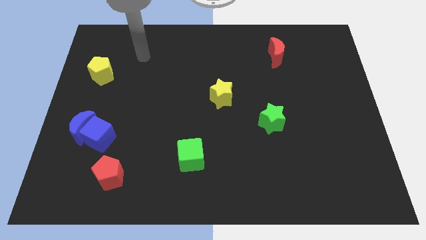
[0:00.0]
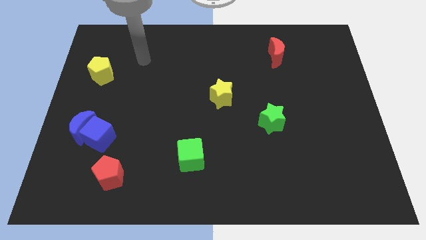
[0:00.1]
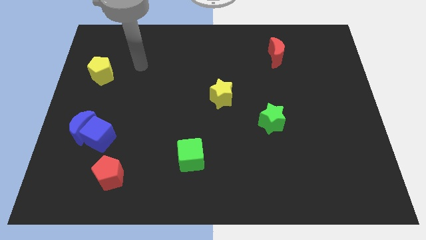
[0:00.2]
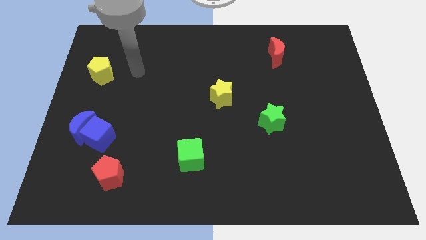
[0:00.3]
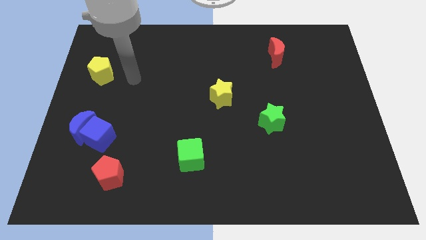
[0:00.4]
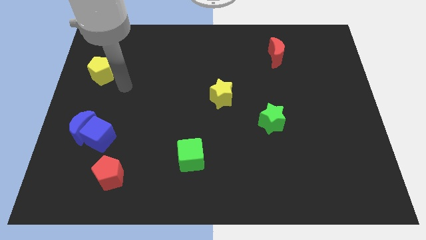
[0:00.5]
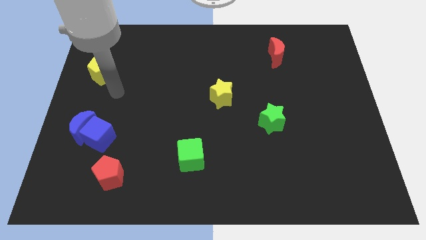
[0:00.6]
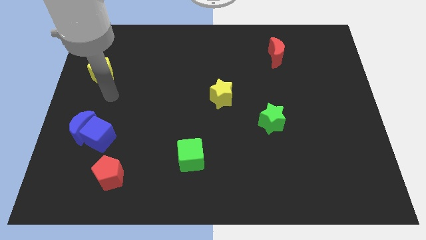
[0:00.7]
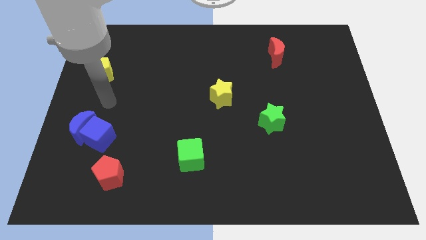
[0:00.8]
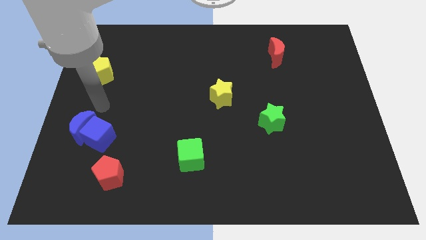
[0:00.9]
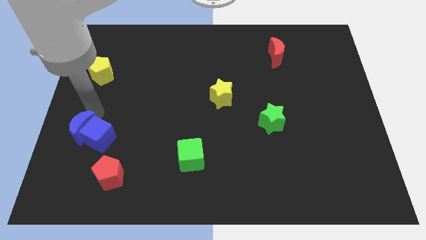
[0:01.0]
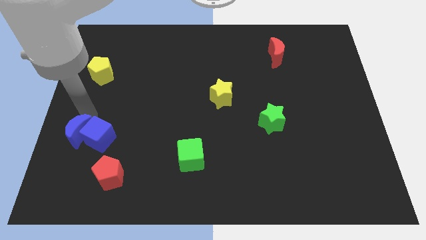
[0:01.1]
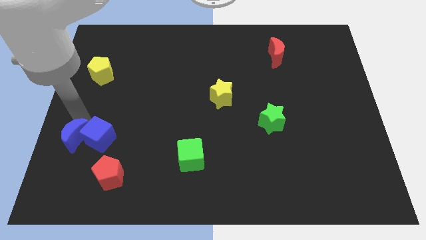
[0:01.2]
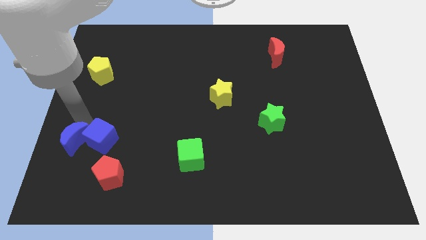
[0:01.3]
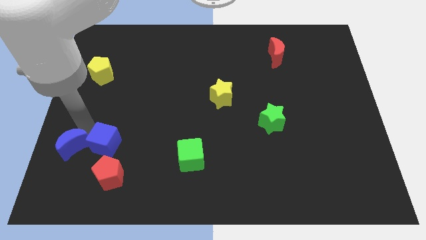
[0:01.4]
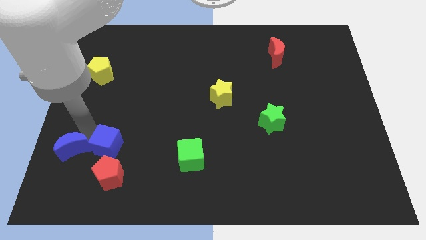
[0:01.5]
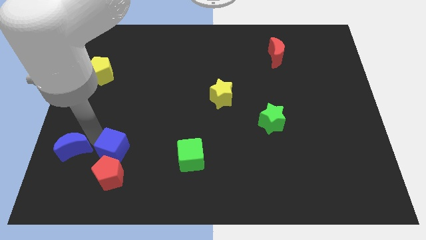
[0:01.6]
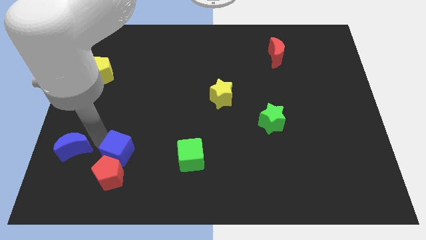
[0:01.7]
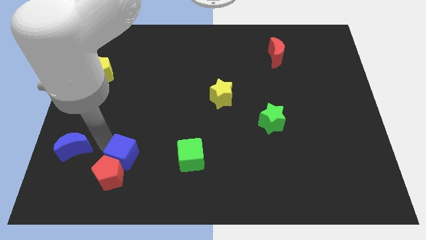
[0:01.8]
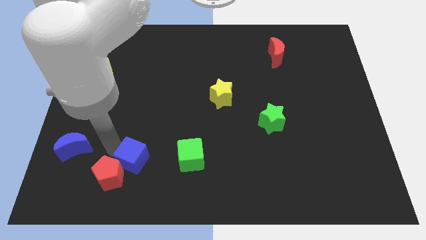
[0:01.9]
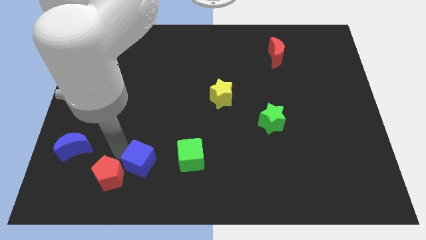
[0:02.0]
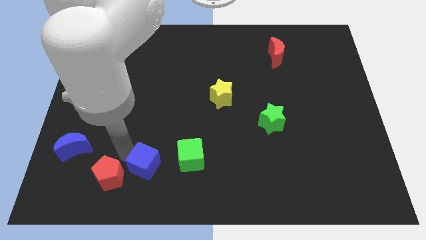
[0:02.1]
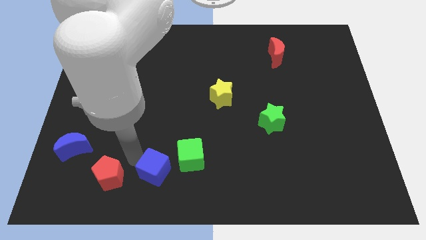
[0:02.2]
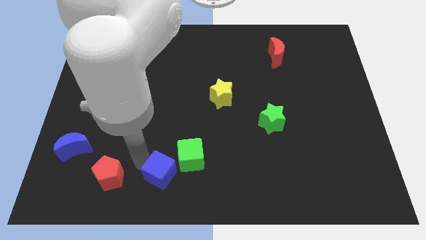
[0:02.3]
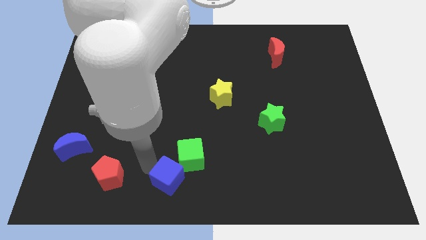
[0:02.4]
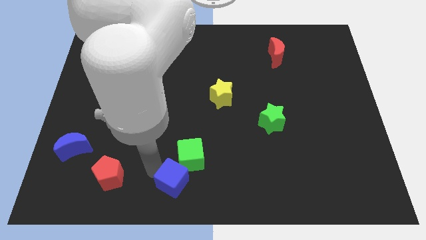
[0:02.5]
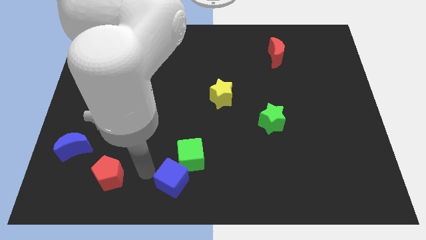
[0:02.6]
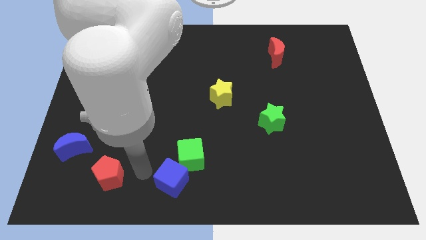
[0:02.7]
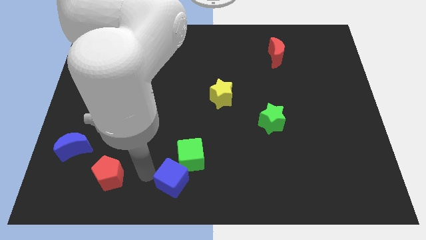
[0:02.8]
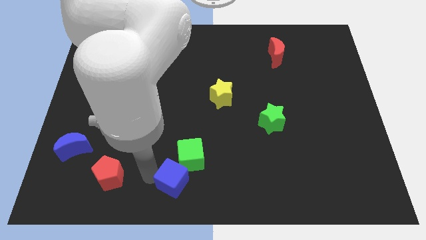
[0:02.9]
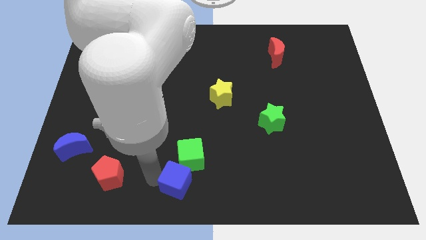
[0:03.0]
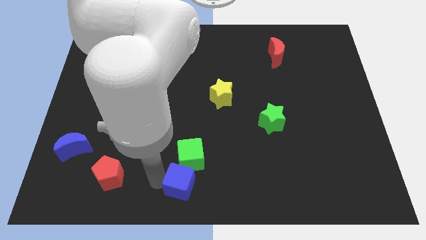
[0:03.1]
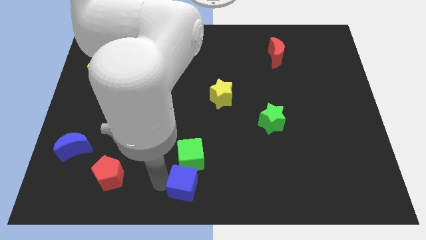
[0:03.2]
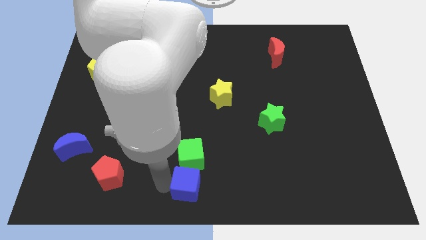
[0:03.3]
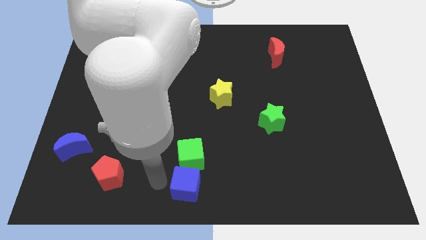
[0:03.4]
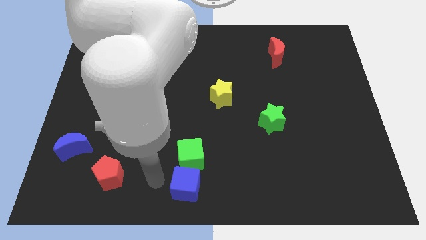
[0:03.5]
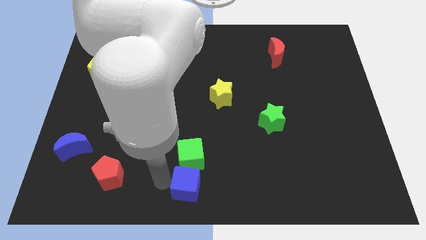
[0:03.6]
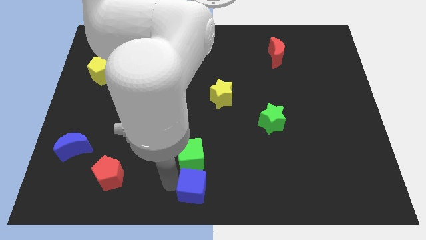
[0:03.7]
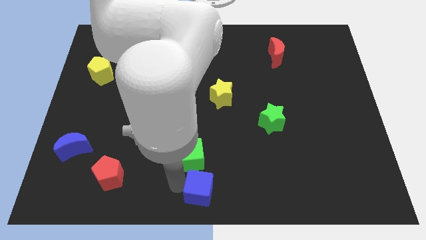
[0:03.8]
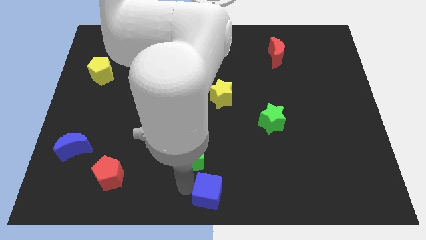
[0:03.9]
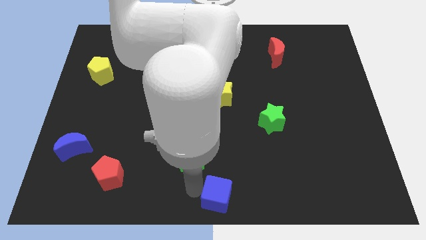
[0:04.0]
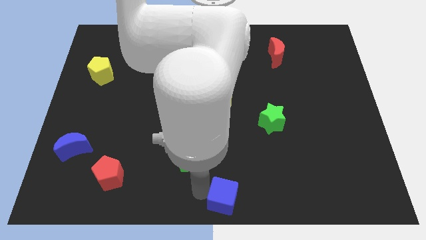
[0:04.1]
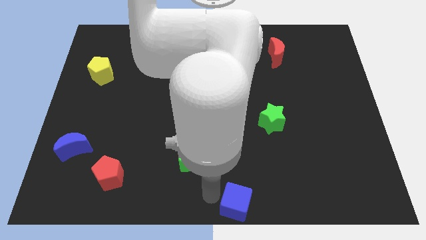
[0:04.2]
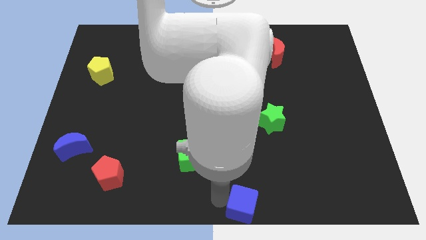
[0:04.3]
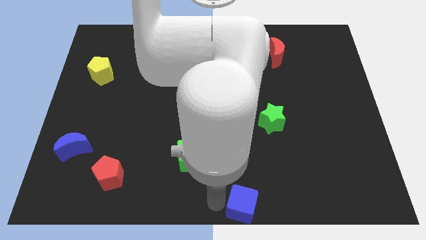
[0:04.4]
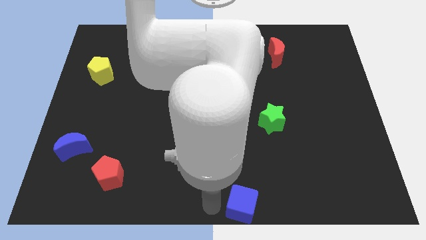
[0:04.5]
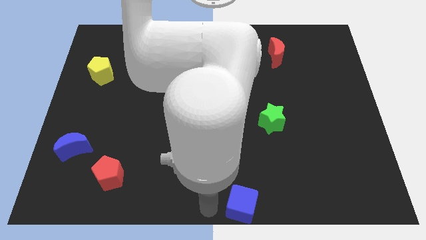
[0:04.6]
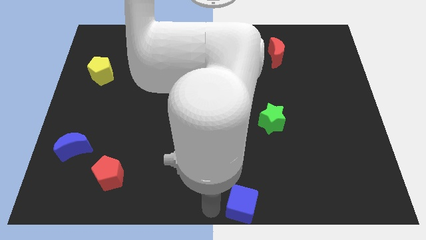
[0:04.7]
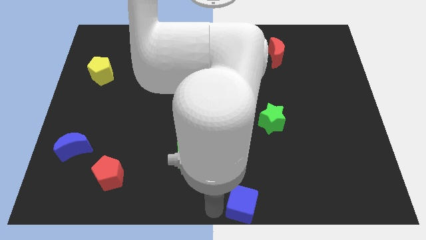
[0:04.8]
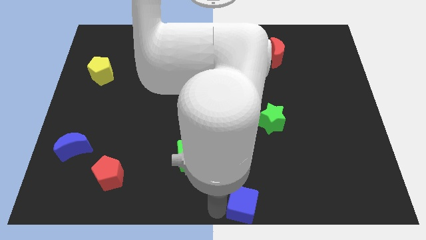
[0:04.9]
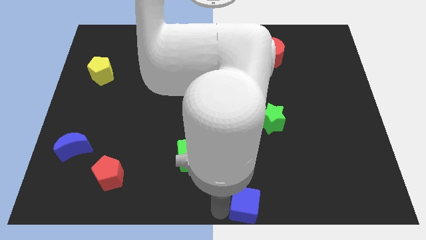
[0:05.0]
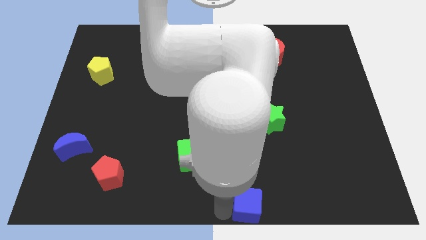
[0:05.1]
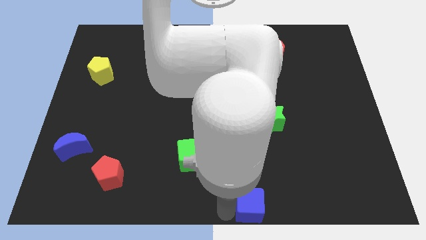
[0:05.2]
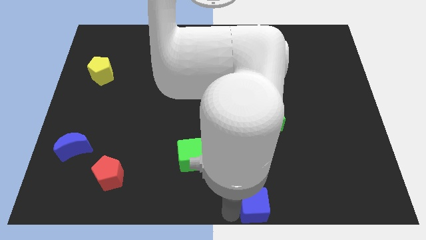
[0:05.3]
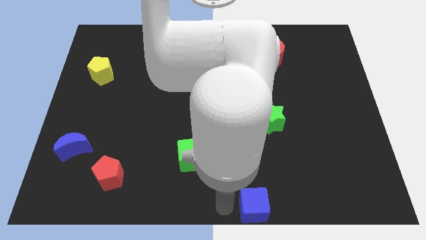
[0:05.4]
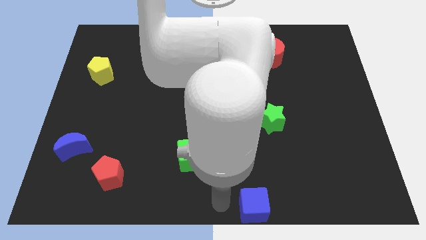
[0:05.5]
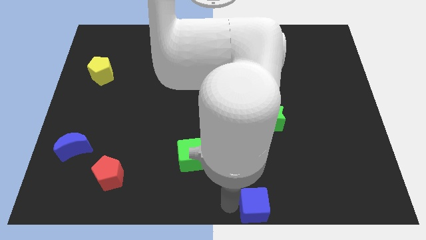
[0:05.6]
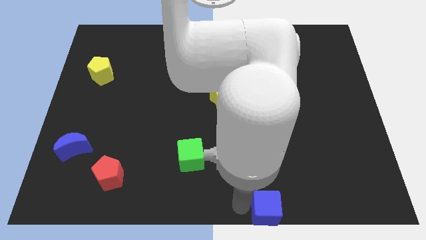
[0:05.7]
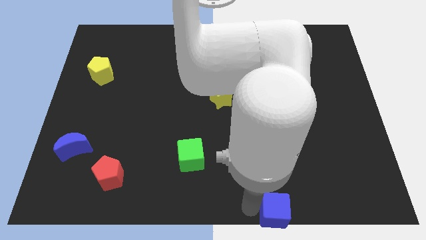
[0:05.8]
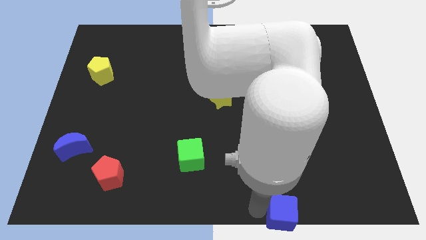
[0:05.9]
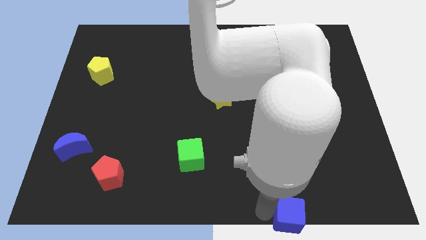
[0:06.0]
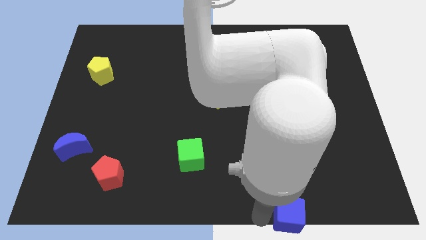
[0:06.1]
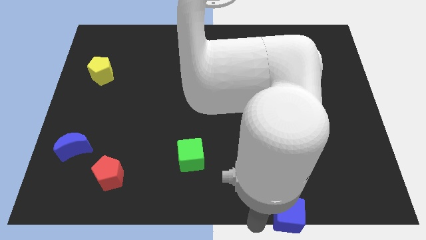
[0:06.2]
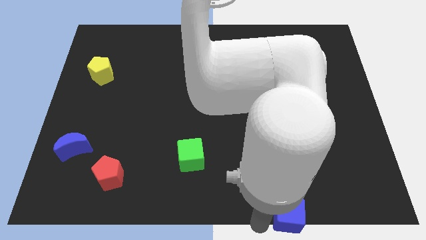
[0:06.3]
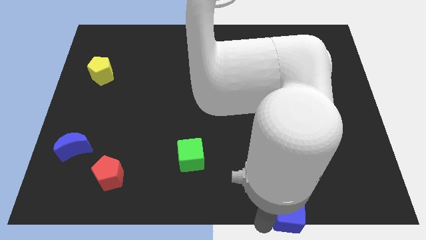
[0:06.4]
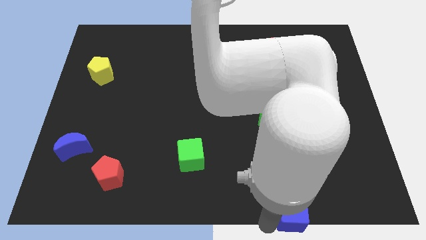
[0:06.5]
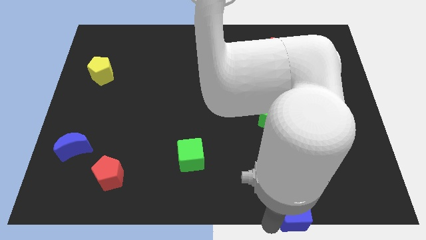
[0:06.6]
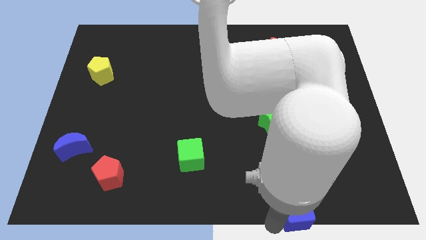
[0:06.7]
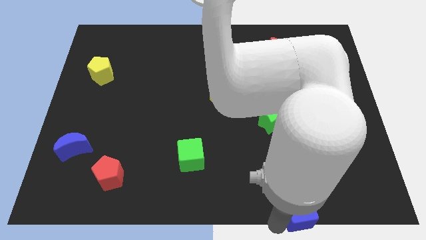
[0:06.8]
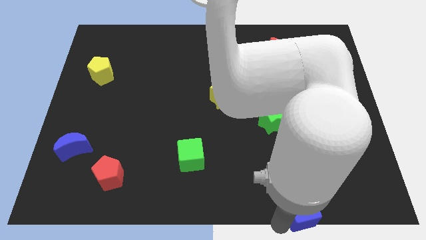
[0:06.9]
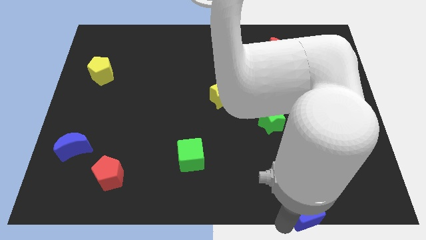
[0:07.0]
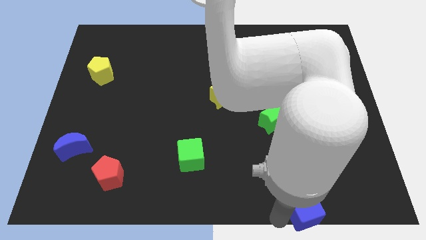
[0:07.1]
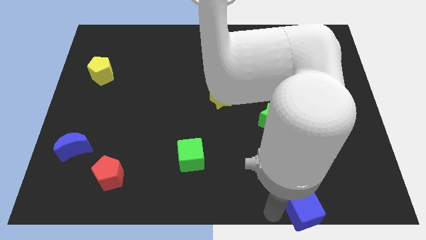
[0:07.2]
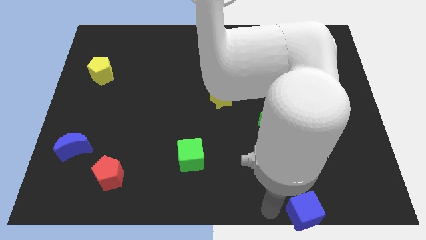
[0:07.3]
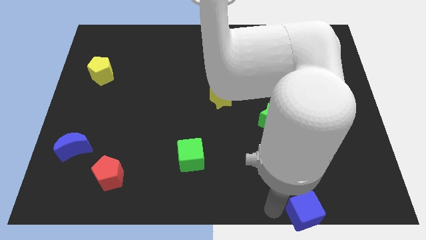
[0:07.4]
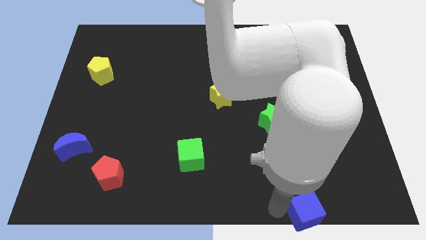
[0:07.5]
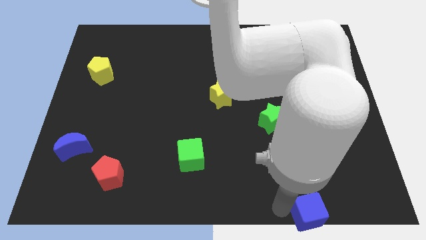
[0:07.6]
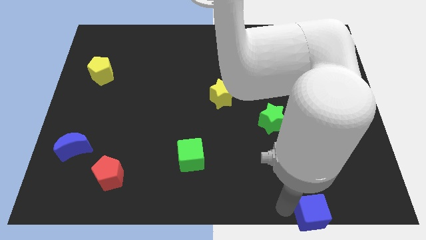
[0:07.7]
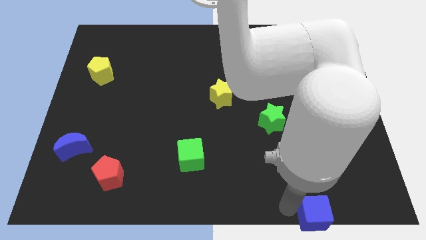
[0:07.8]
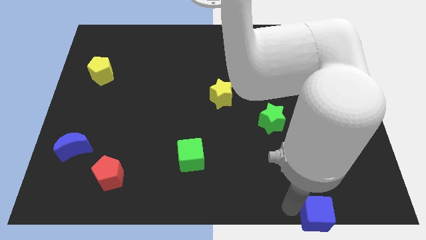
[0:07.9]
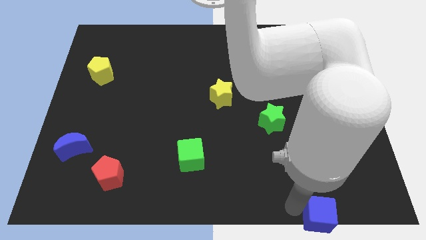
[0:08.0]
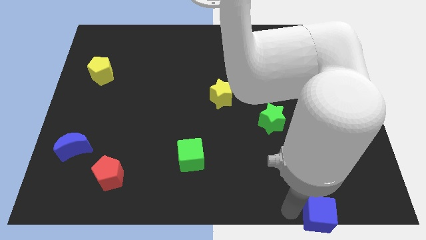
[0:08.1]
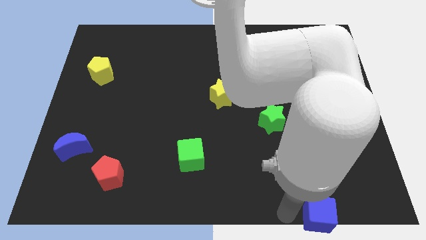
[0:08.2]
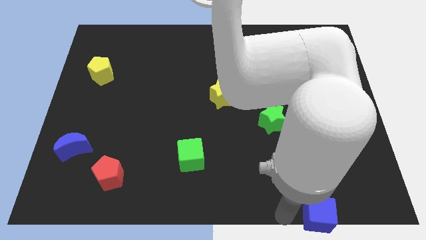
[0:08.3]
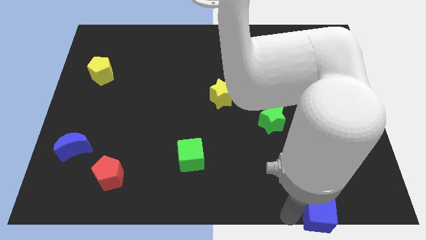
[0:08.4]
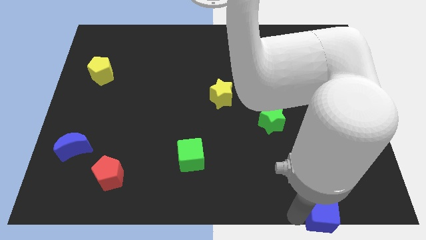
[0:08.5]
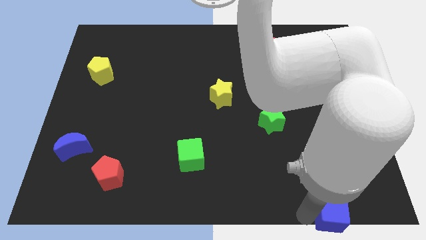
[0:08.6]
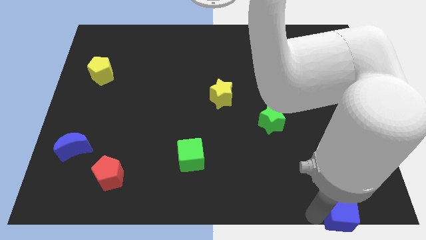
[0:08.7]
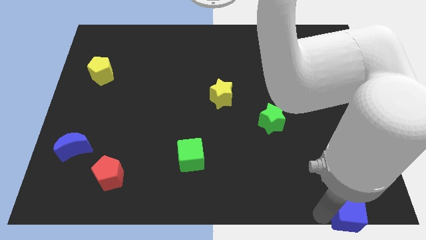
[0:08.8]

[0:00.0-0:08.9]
push the blue cube to the lower right corner
